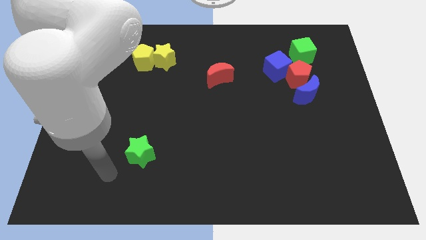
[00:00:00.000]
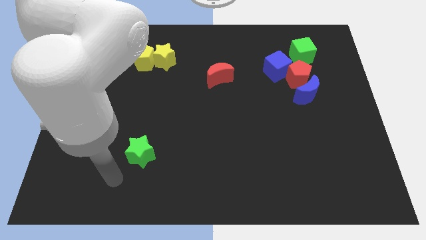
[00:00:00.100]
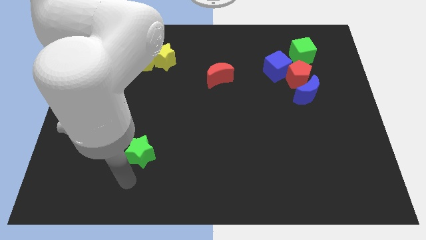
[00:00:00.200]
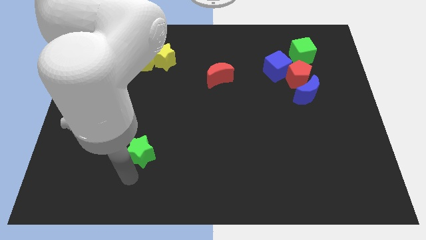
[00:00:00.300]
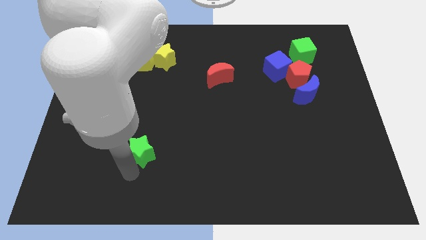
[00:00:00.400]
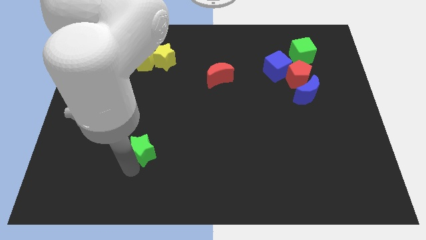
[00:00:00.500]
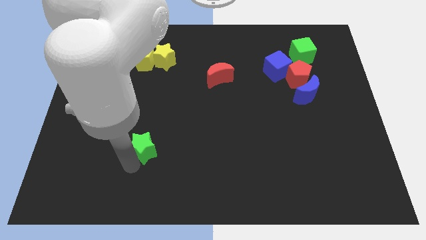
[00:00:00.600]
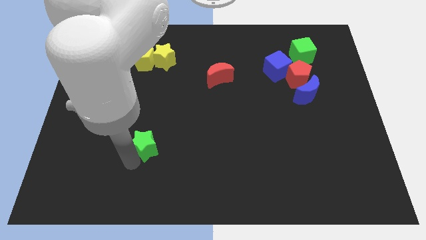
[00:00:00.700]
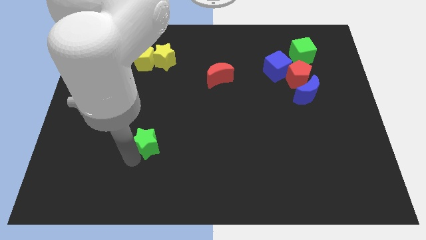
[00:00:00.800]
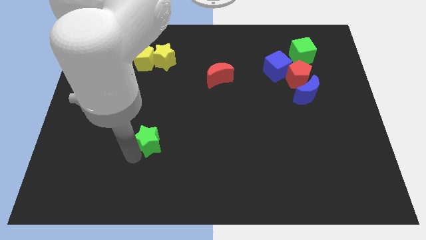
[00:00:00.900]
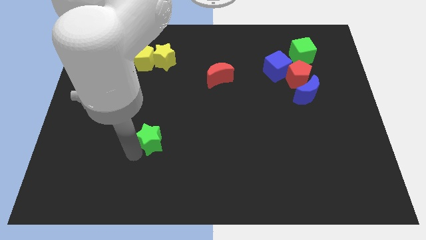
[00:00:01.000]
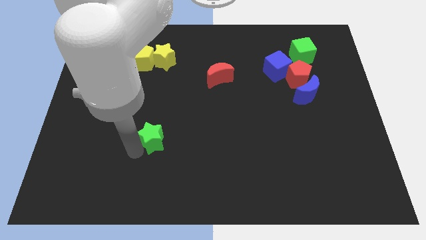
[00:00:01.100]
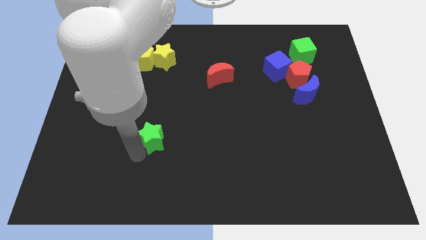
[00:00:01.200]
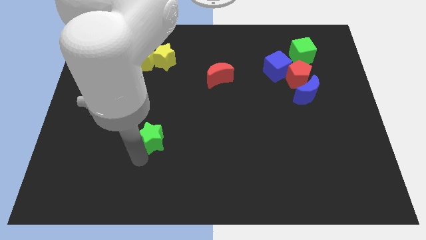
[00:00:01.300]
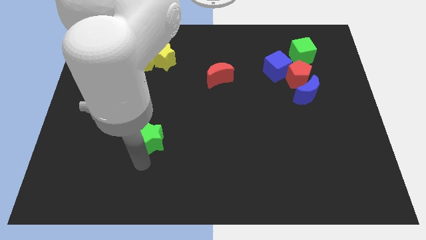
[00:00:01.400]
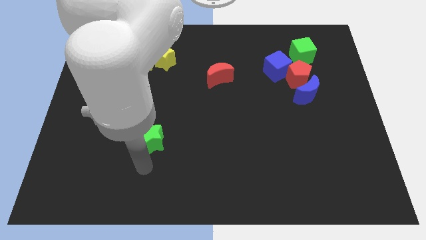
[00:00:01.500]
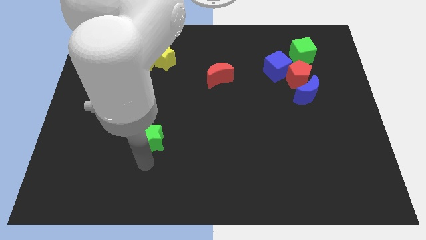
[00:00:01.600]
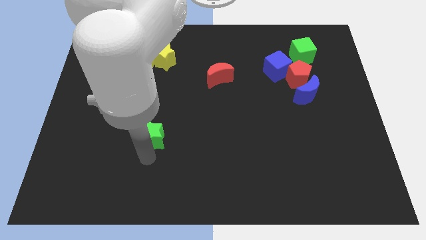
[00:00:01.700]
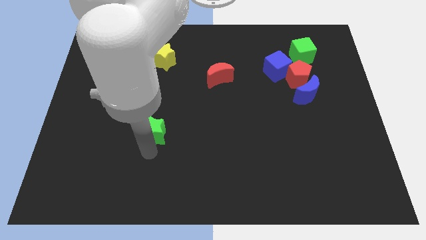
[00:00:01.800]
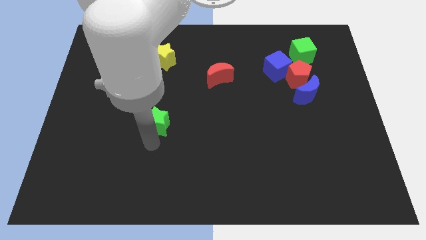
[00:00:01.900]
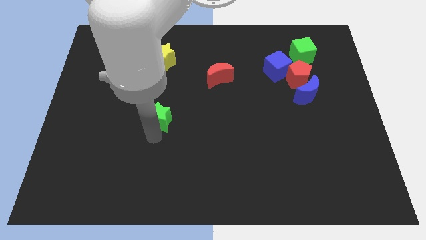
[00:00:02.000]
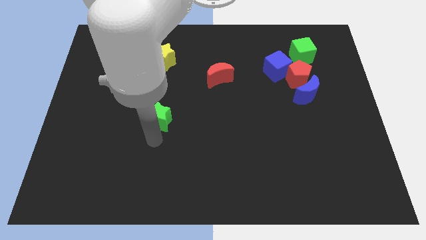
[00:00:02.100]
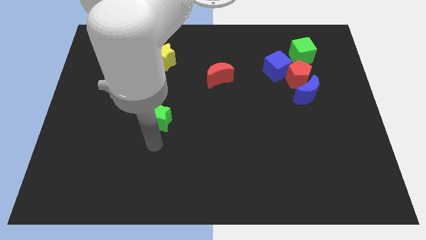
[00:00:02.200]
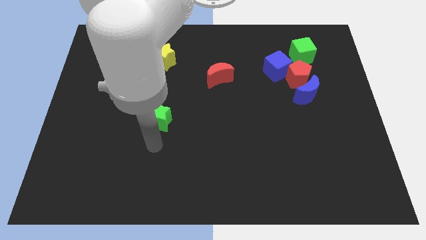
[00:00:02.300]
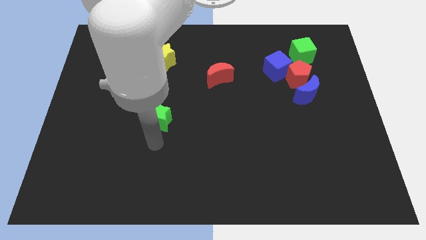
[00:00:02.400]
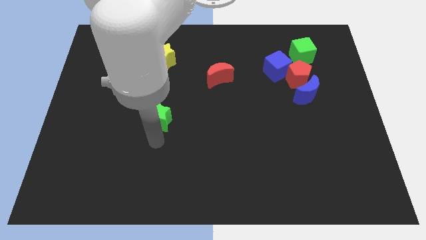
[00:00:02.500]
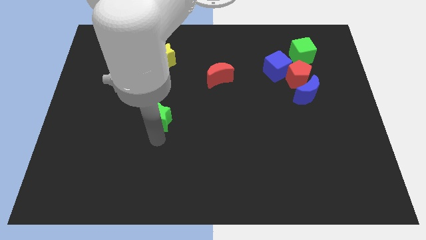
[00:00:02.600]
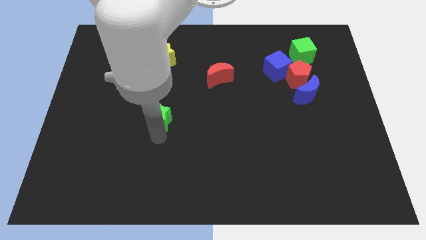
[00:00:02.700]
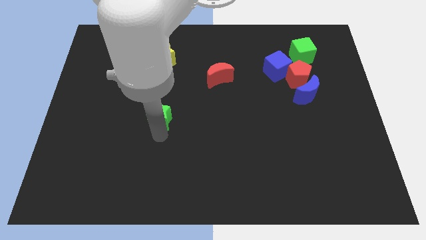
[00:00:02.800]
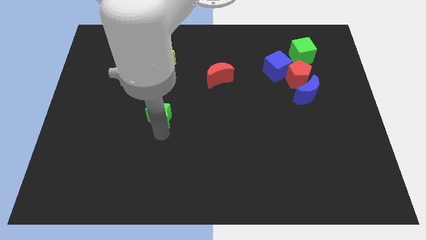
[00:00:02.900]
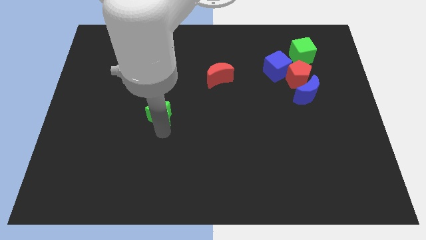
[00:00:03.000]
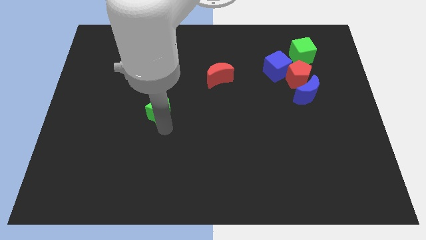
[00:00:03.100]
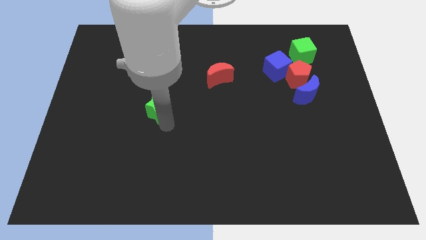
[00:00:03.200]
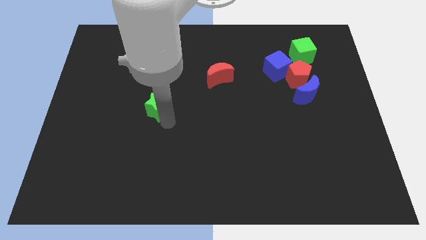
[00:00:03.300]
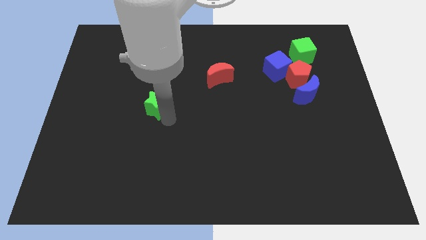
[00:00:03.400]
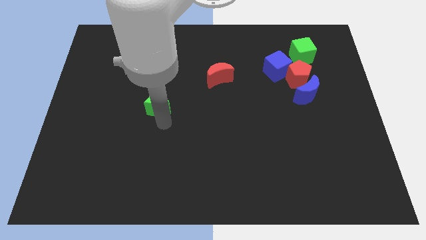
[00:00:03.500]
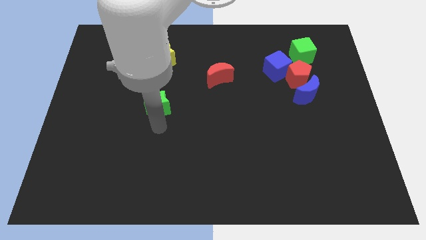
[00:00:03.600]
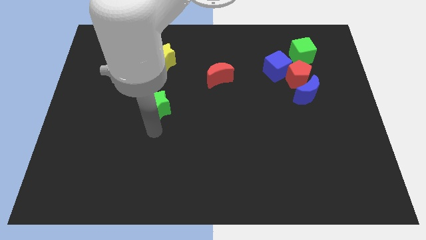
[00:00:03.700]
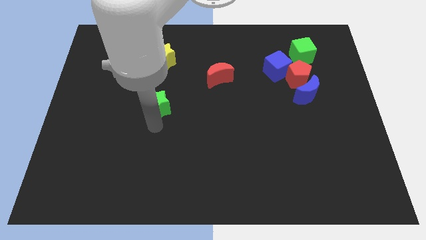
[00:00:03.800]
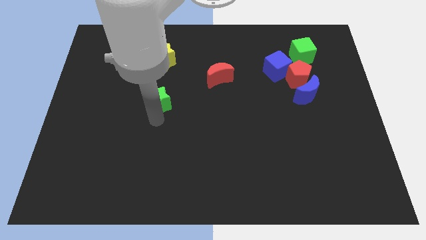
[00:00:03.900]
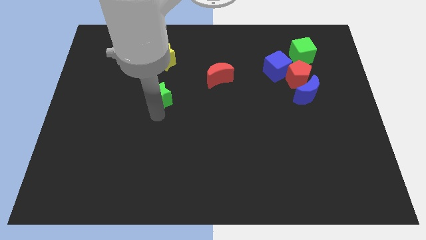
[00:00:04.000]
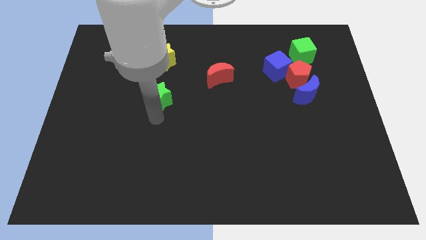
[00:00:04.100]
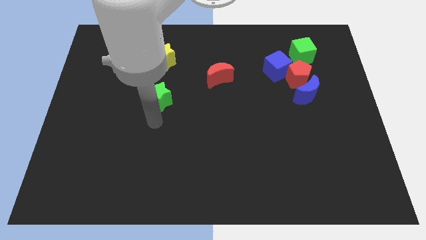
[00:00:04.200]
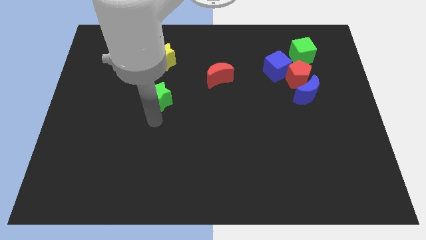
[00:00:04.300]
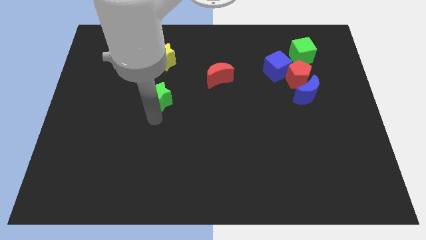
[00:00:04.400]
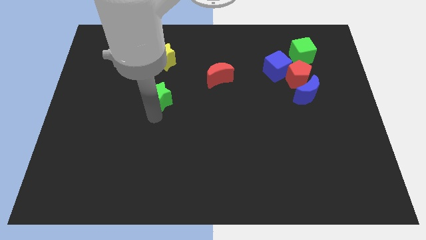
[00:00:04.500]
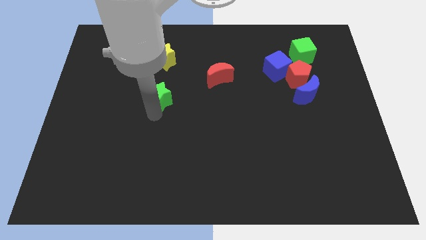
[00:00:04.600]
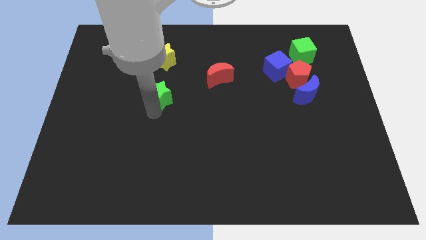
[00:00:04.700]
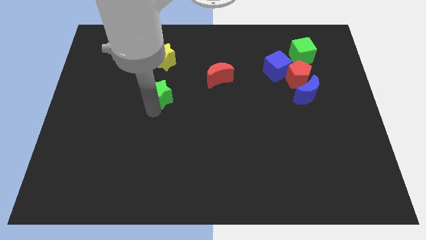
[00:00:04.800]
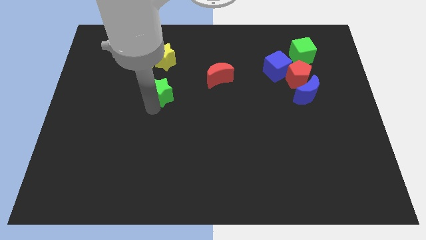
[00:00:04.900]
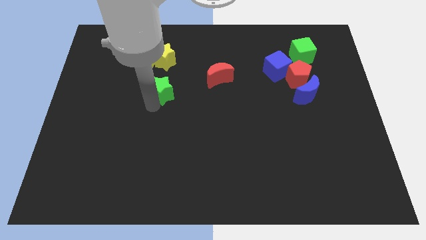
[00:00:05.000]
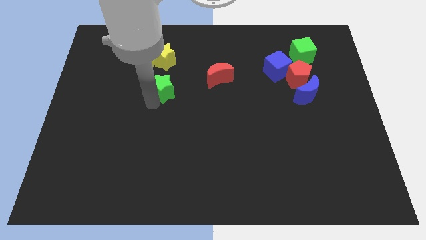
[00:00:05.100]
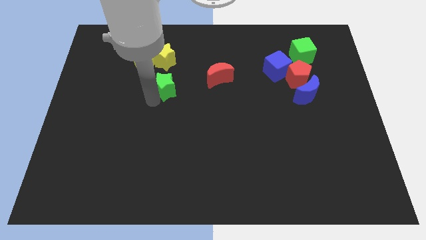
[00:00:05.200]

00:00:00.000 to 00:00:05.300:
push the green star to the left side of the red moon

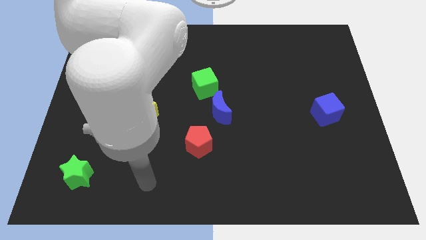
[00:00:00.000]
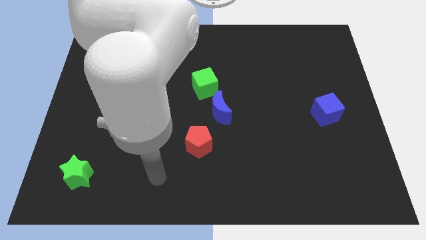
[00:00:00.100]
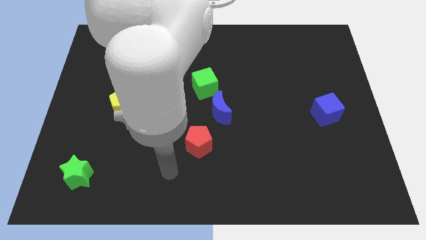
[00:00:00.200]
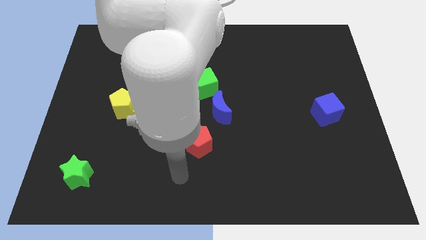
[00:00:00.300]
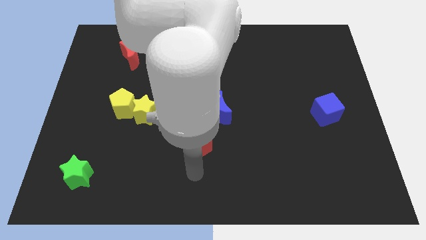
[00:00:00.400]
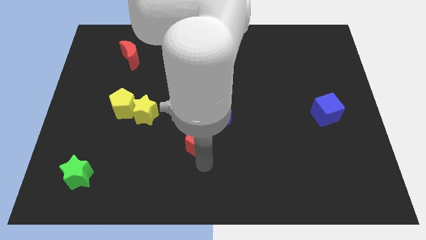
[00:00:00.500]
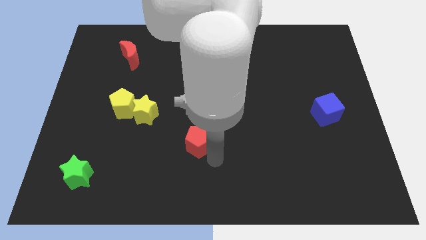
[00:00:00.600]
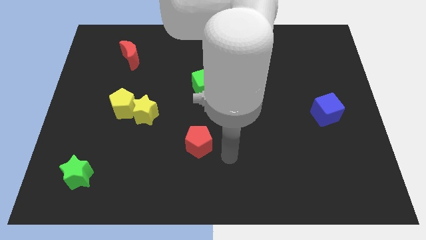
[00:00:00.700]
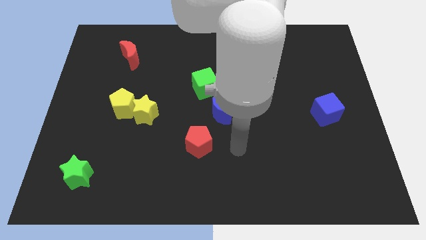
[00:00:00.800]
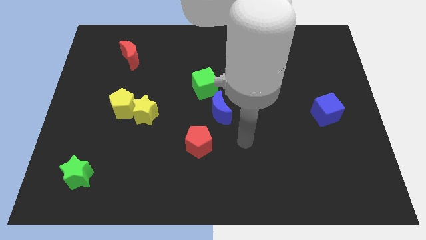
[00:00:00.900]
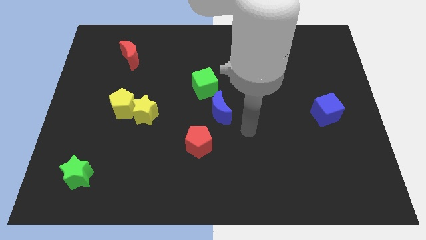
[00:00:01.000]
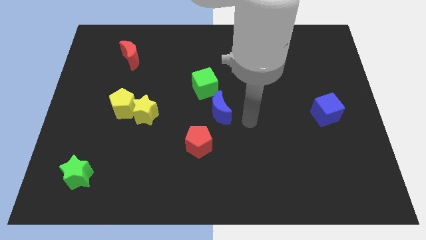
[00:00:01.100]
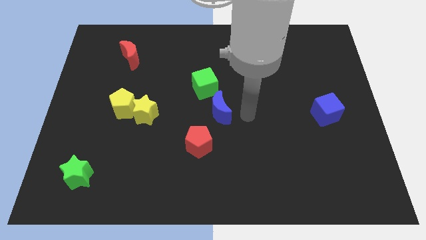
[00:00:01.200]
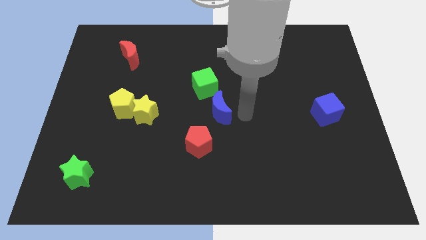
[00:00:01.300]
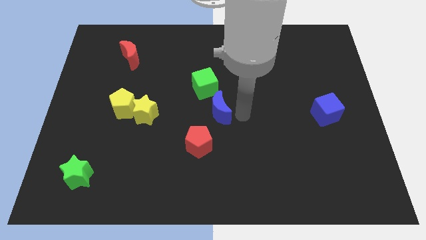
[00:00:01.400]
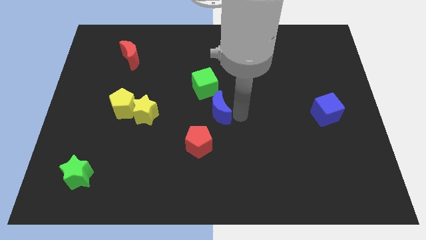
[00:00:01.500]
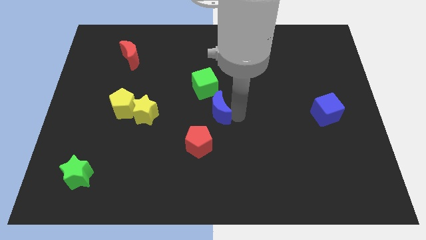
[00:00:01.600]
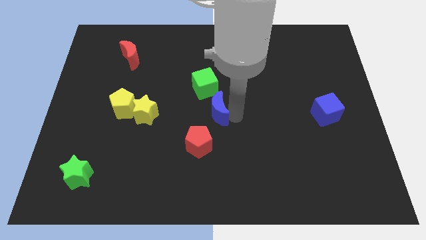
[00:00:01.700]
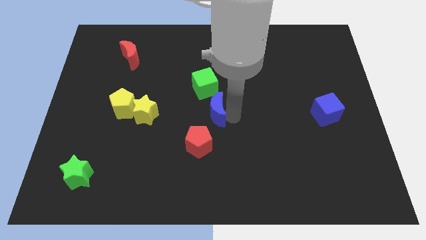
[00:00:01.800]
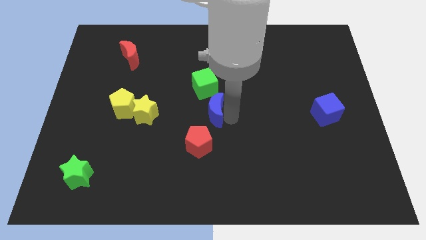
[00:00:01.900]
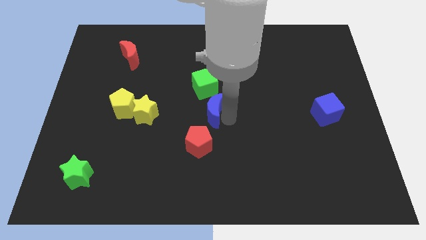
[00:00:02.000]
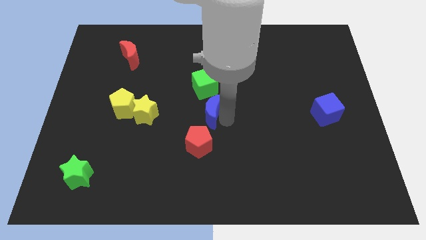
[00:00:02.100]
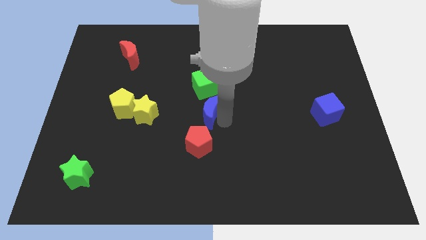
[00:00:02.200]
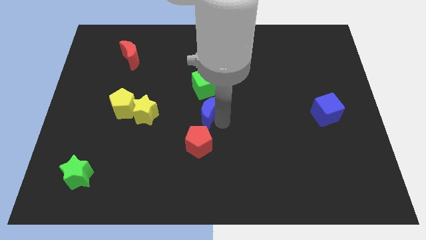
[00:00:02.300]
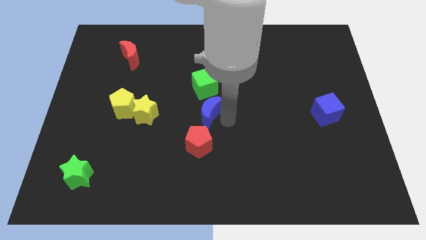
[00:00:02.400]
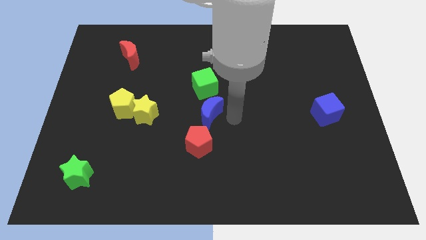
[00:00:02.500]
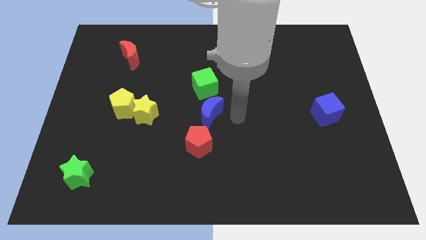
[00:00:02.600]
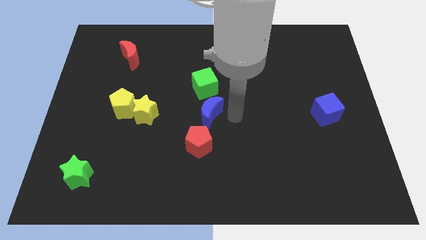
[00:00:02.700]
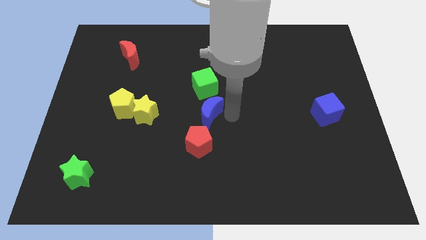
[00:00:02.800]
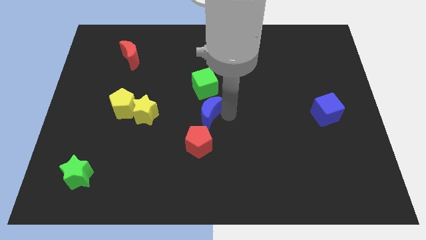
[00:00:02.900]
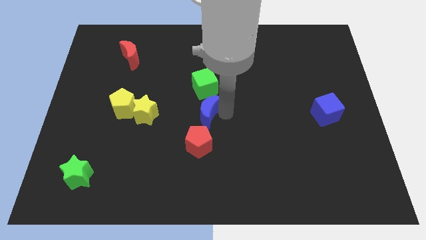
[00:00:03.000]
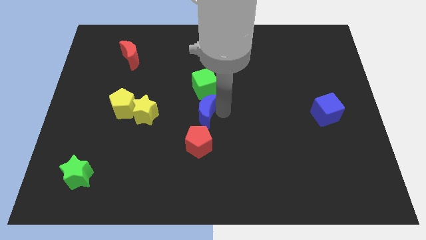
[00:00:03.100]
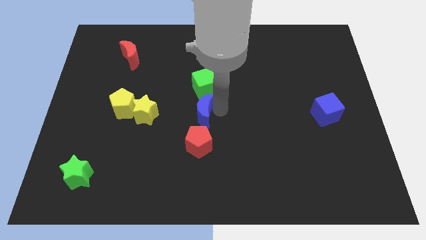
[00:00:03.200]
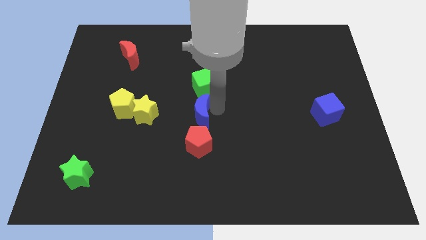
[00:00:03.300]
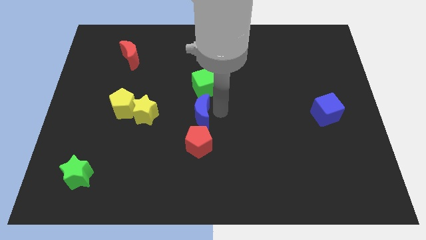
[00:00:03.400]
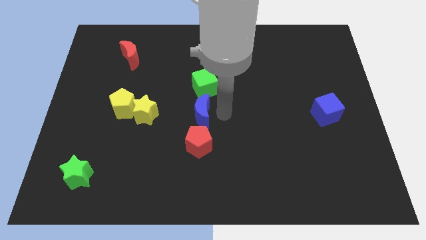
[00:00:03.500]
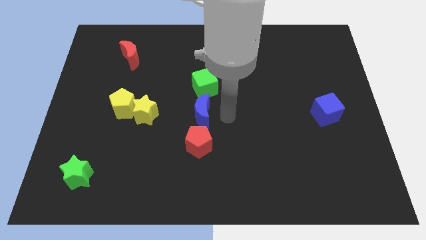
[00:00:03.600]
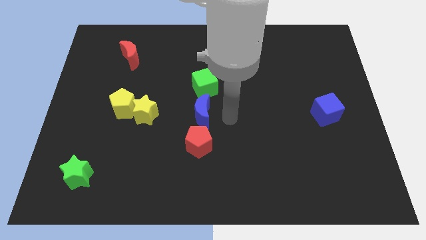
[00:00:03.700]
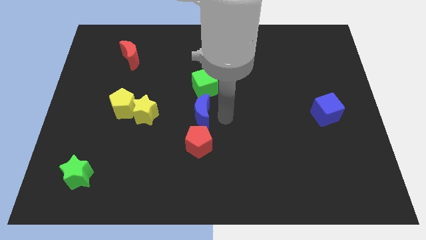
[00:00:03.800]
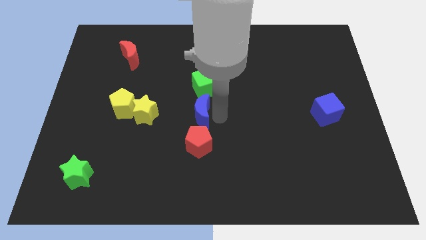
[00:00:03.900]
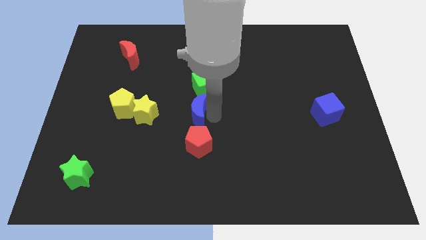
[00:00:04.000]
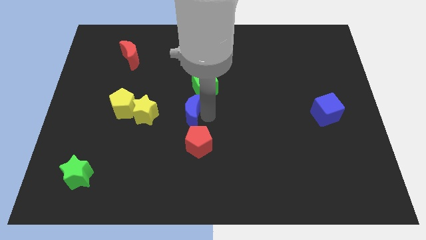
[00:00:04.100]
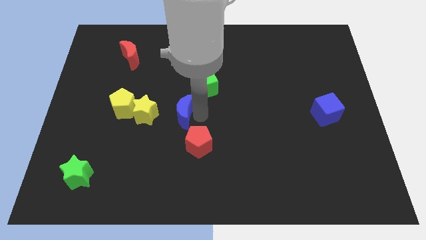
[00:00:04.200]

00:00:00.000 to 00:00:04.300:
push the blue moon right of the yellow pentagon
